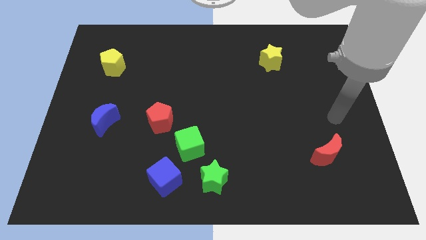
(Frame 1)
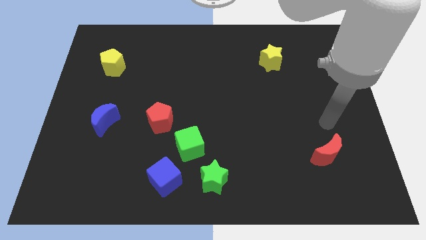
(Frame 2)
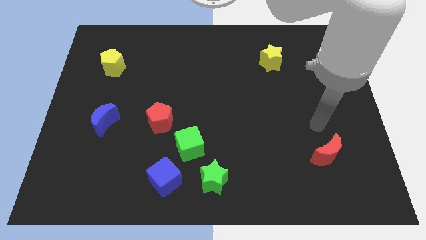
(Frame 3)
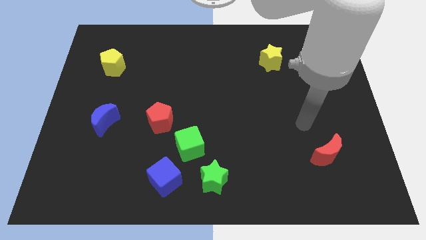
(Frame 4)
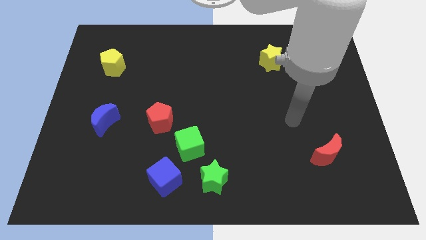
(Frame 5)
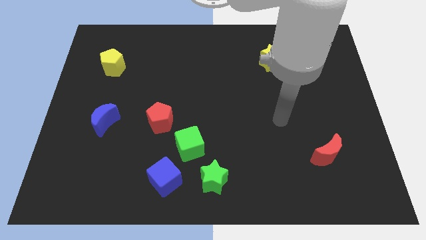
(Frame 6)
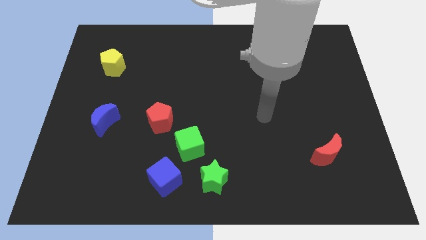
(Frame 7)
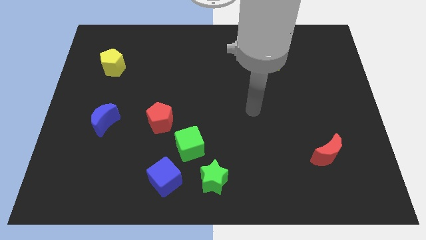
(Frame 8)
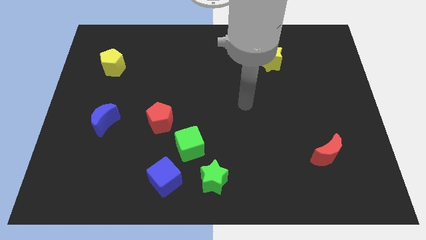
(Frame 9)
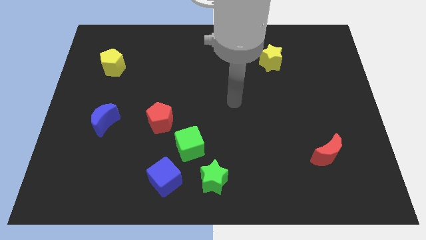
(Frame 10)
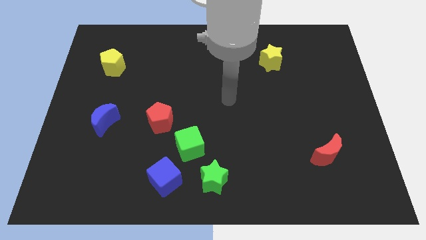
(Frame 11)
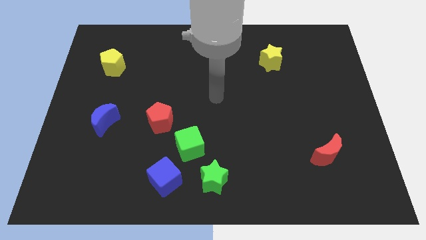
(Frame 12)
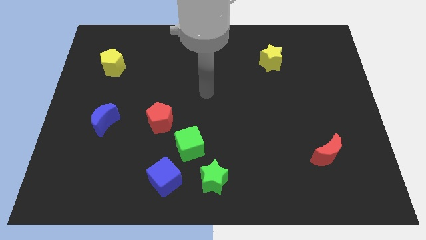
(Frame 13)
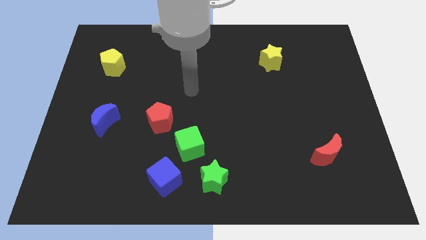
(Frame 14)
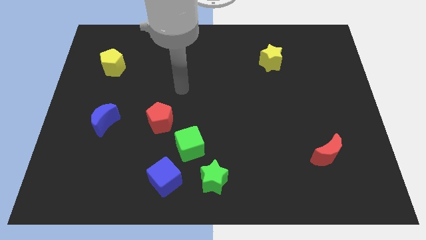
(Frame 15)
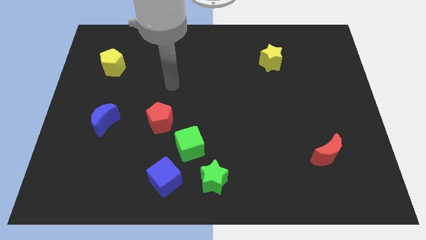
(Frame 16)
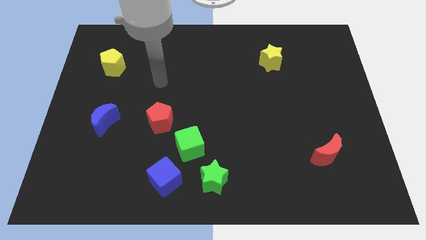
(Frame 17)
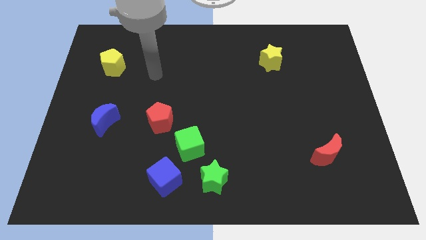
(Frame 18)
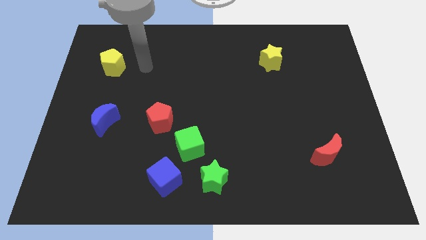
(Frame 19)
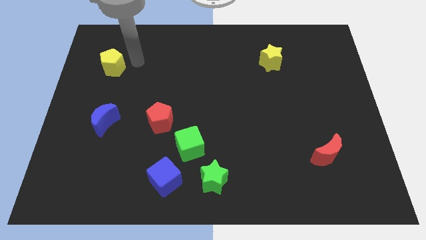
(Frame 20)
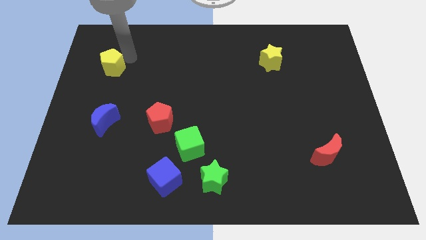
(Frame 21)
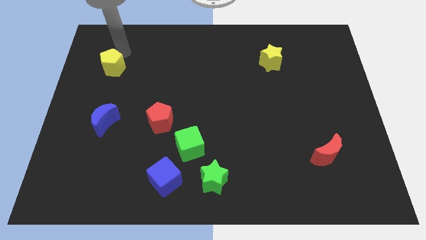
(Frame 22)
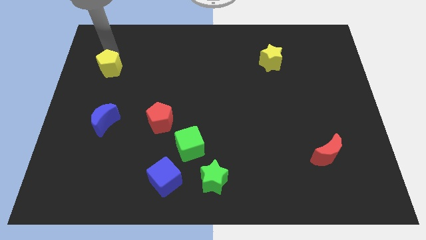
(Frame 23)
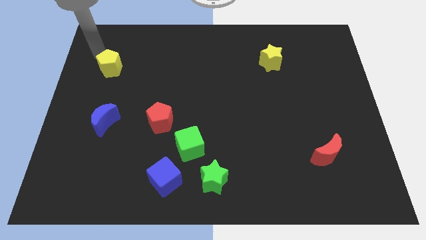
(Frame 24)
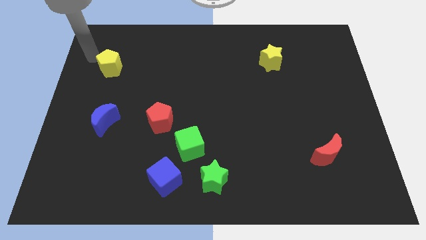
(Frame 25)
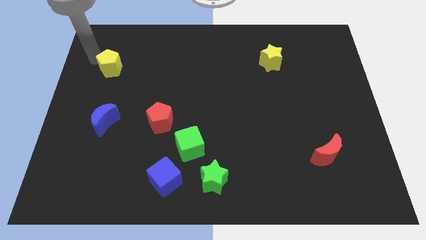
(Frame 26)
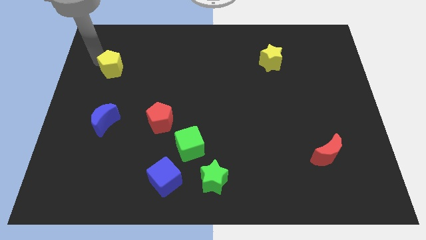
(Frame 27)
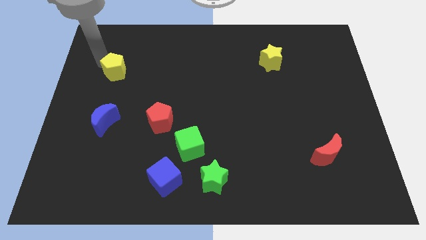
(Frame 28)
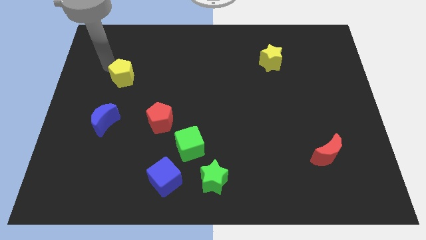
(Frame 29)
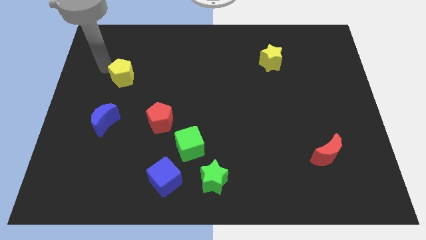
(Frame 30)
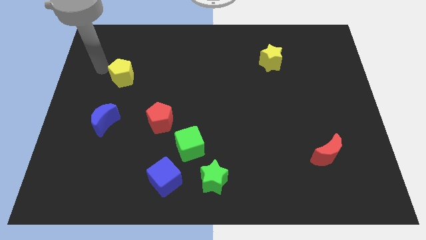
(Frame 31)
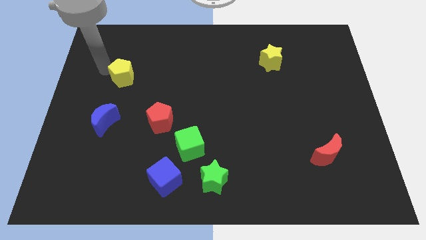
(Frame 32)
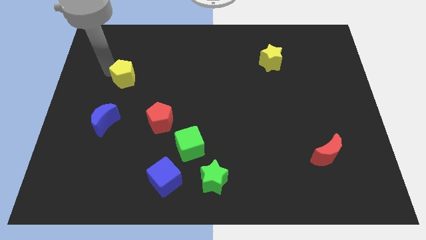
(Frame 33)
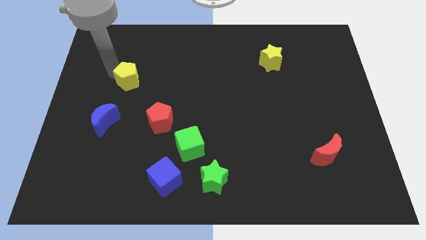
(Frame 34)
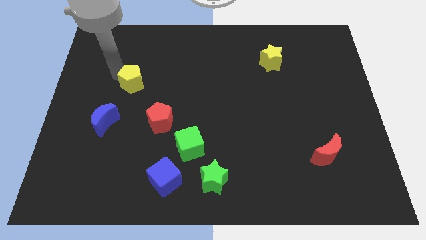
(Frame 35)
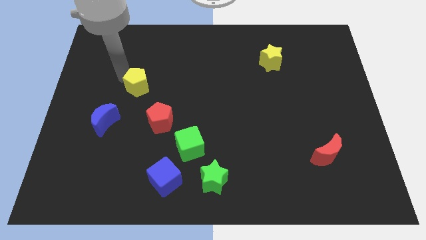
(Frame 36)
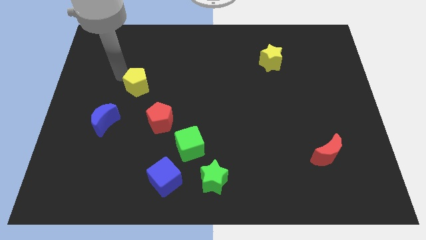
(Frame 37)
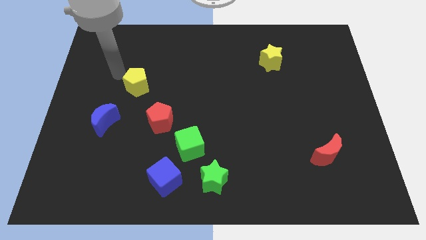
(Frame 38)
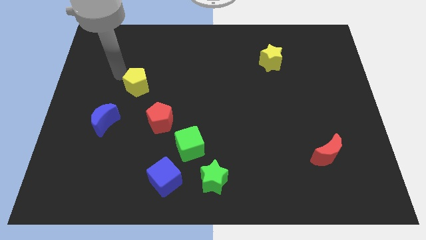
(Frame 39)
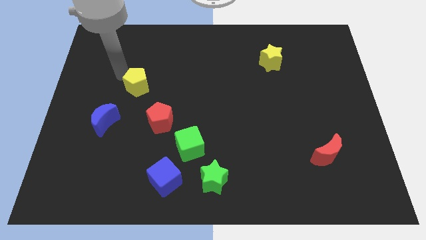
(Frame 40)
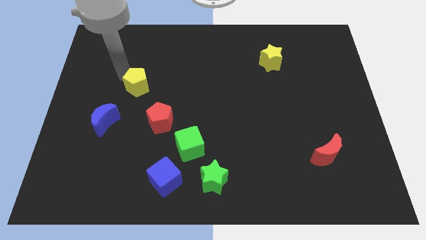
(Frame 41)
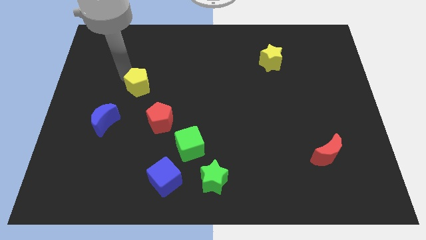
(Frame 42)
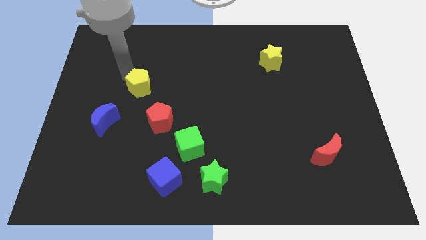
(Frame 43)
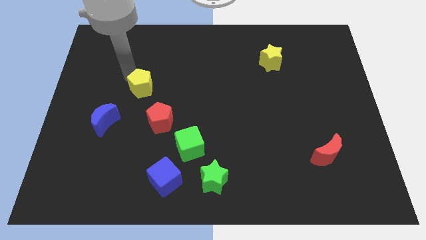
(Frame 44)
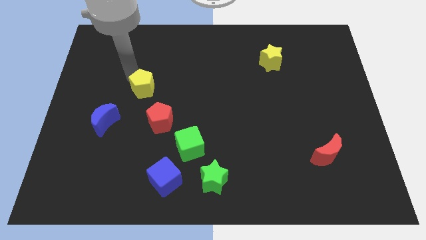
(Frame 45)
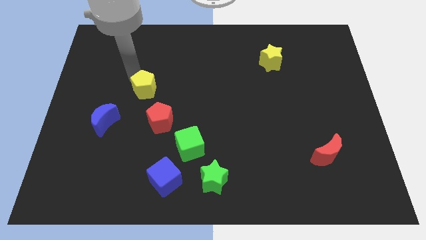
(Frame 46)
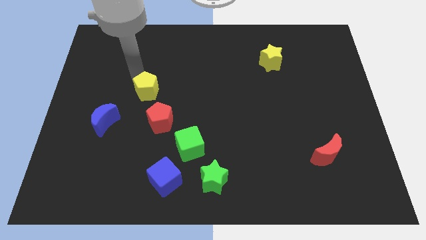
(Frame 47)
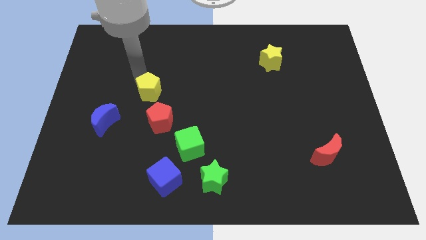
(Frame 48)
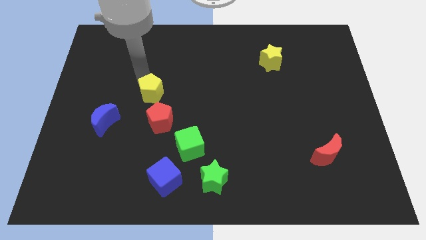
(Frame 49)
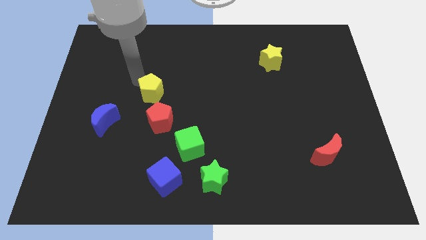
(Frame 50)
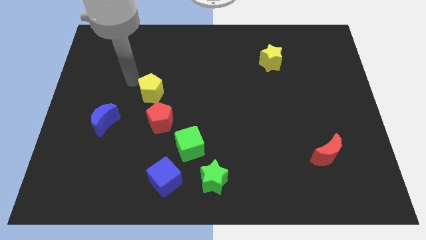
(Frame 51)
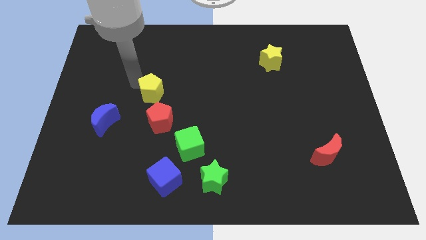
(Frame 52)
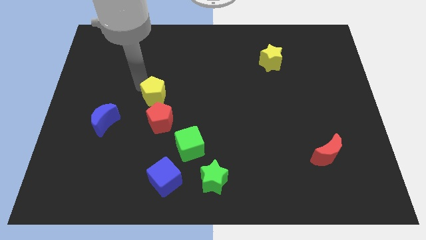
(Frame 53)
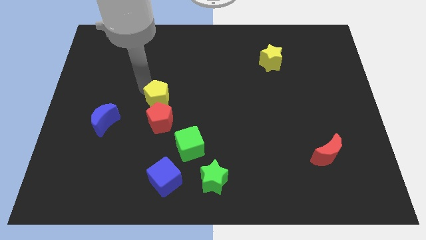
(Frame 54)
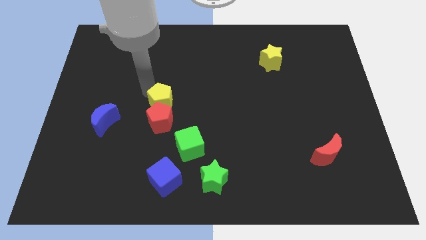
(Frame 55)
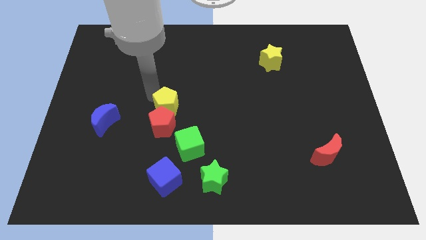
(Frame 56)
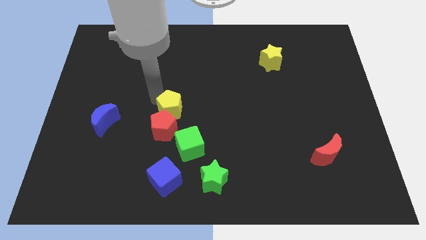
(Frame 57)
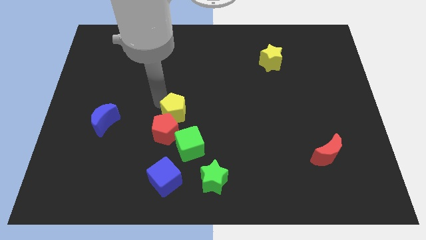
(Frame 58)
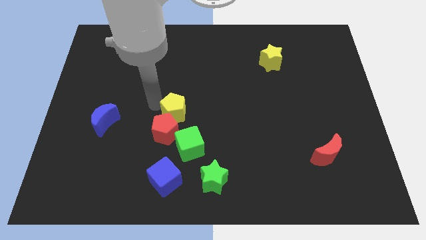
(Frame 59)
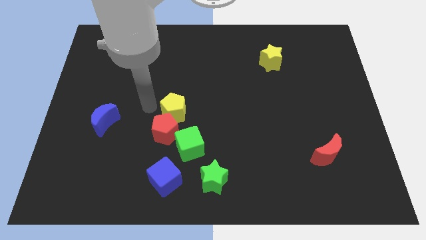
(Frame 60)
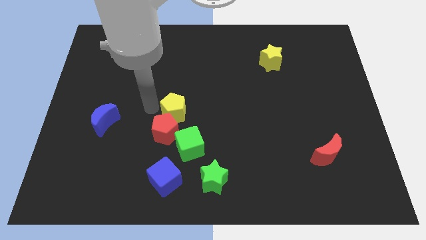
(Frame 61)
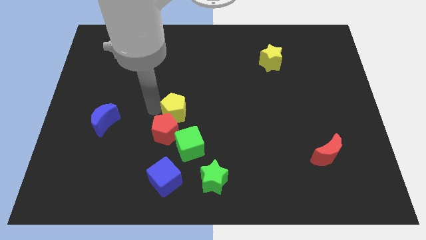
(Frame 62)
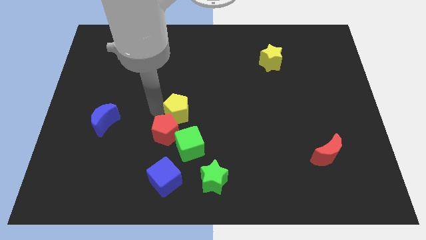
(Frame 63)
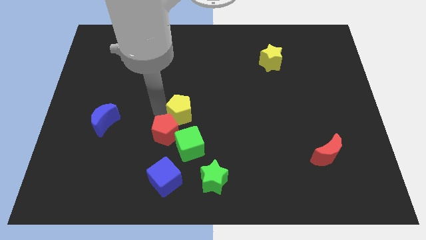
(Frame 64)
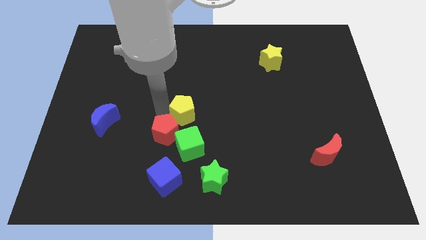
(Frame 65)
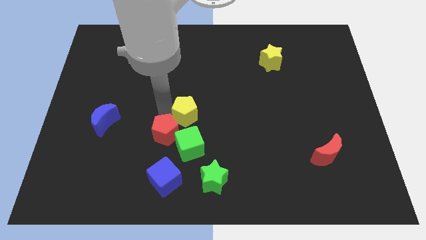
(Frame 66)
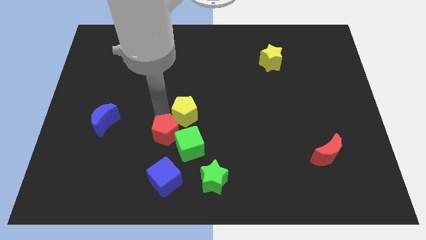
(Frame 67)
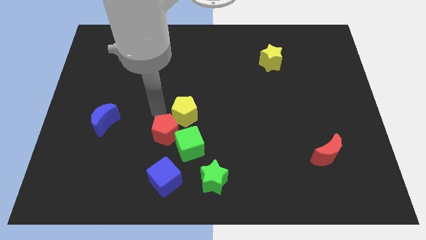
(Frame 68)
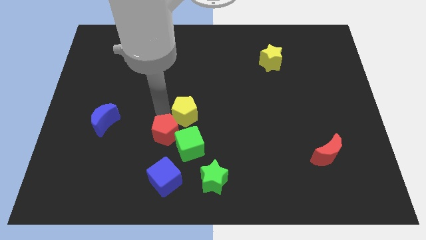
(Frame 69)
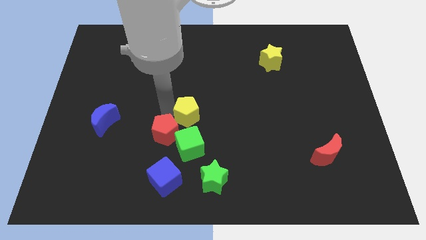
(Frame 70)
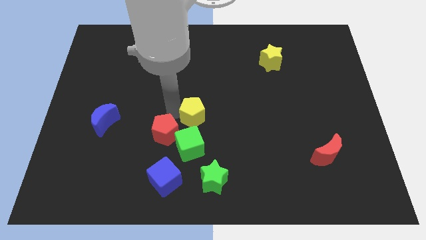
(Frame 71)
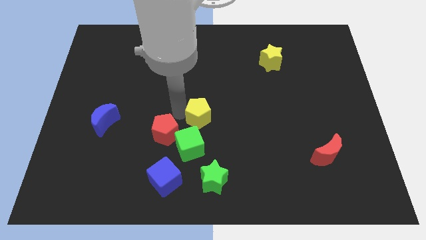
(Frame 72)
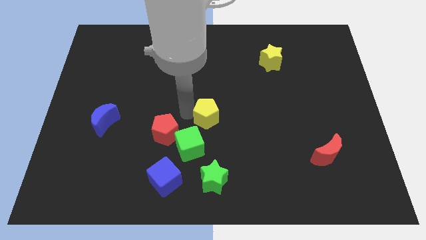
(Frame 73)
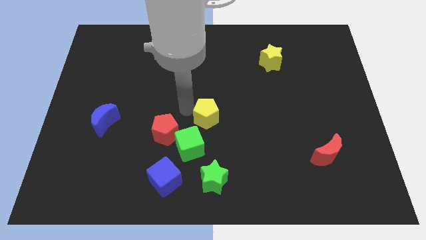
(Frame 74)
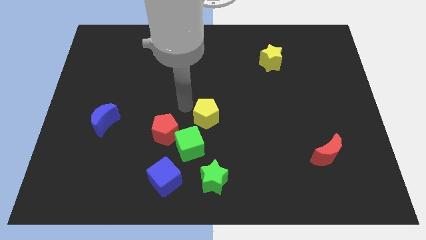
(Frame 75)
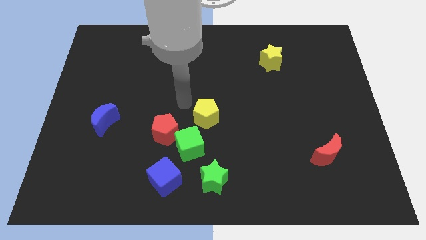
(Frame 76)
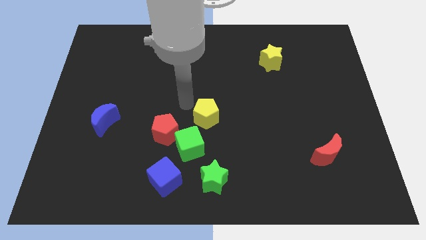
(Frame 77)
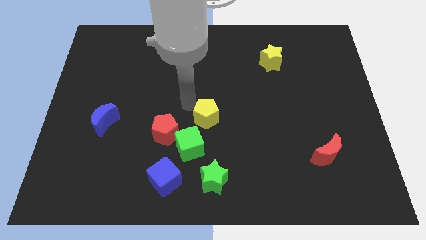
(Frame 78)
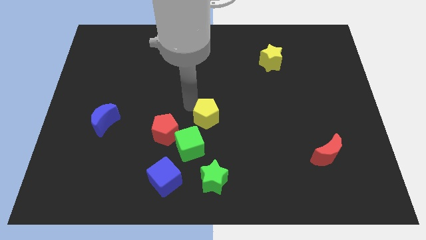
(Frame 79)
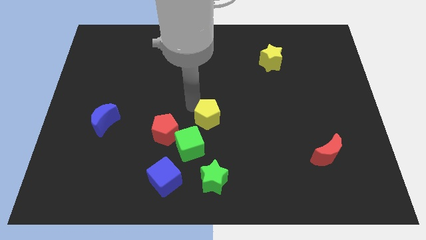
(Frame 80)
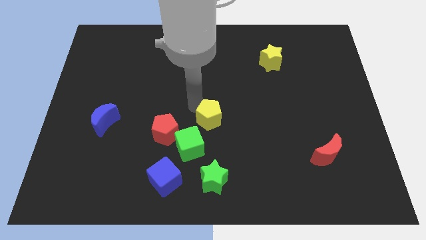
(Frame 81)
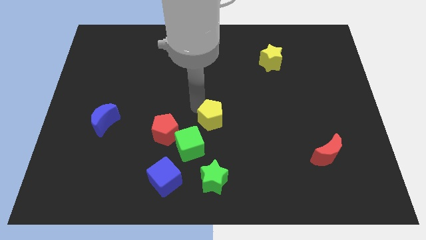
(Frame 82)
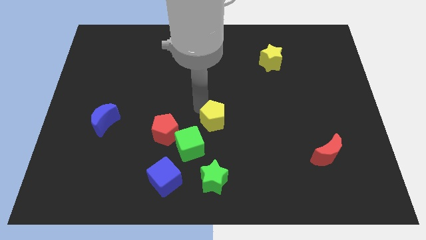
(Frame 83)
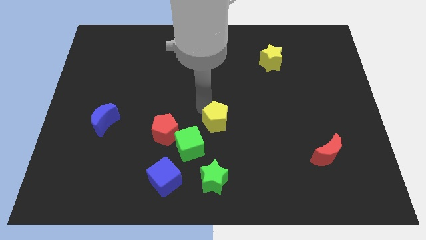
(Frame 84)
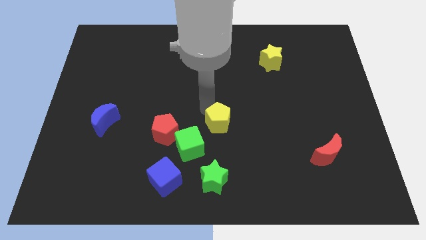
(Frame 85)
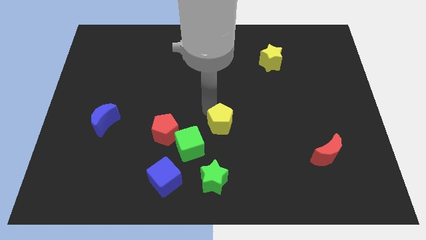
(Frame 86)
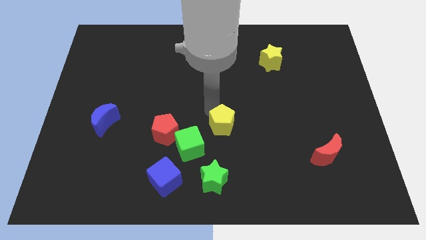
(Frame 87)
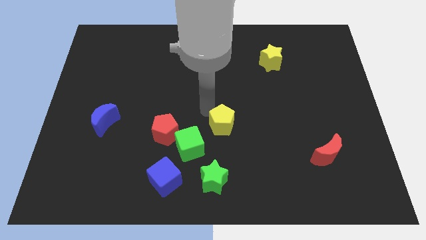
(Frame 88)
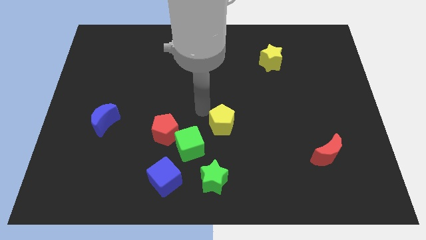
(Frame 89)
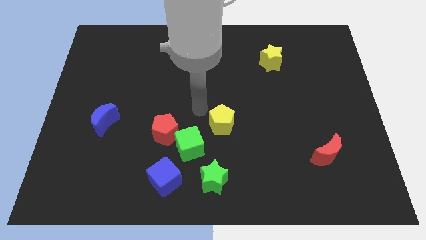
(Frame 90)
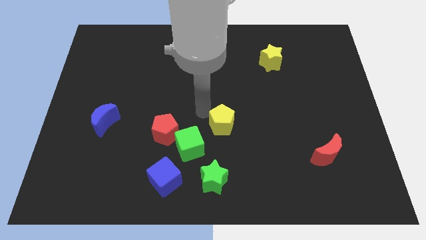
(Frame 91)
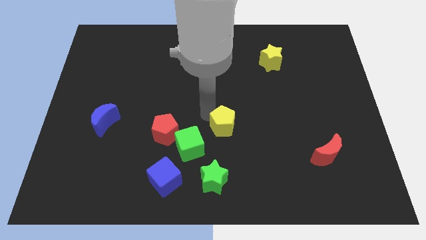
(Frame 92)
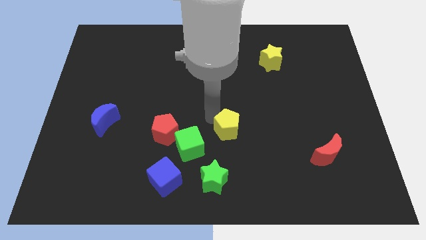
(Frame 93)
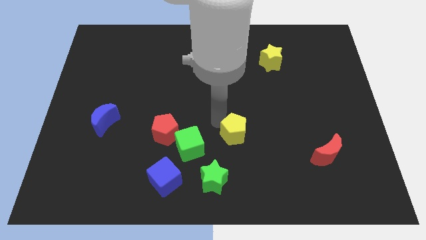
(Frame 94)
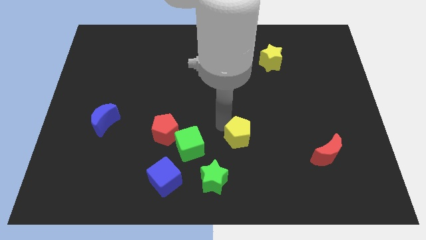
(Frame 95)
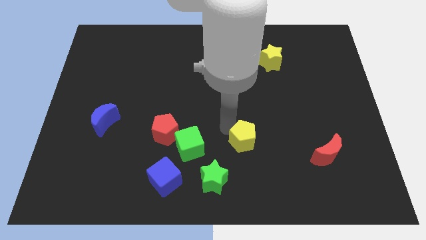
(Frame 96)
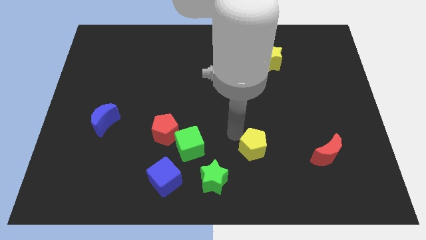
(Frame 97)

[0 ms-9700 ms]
put the yellow pentagon to the left side of the red moon
